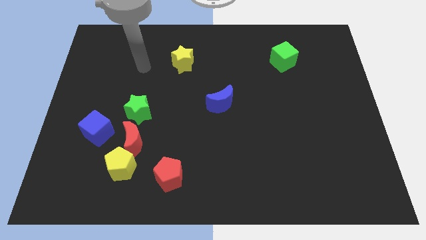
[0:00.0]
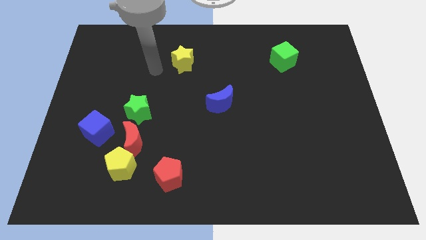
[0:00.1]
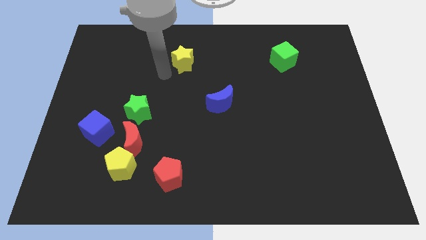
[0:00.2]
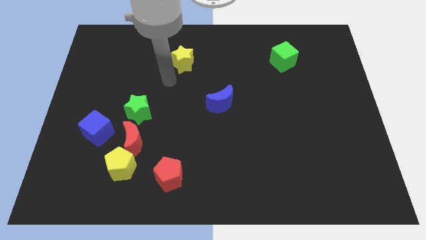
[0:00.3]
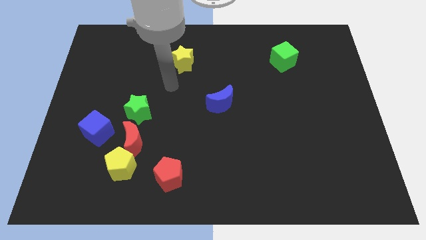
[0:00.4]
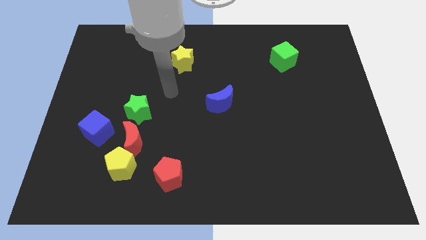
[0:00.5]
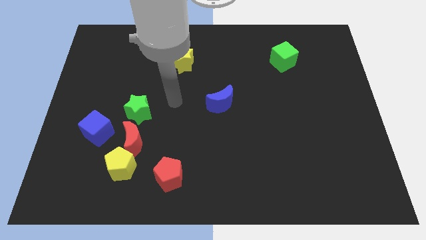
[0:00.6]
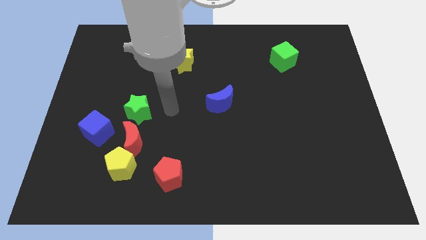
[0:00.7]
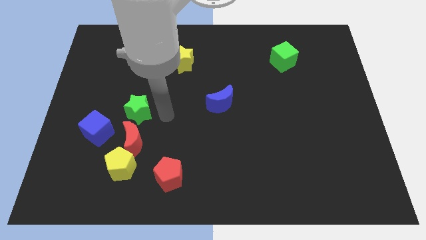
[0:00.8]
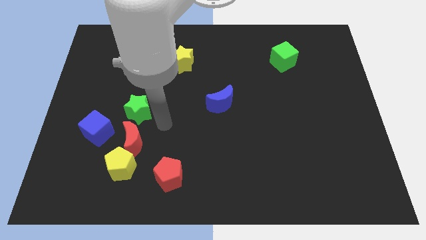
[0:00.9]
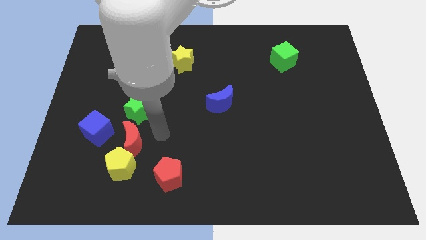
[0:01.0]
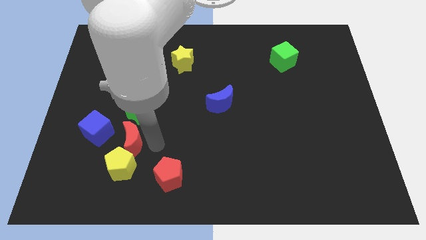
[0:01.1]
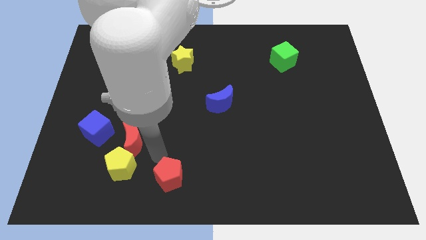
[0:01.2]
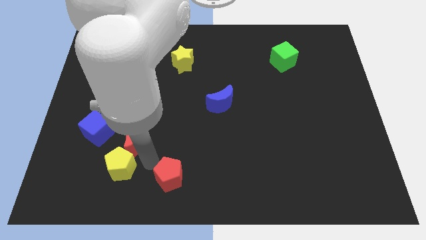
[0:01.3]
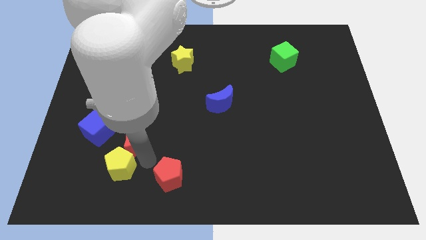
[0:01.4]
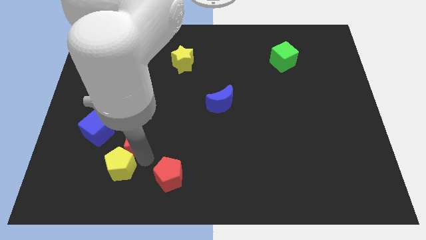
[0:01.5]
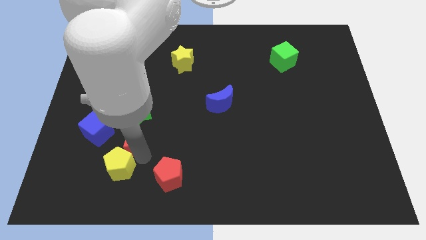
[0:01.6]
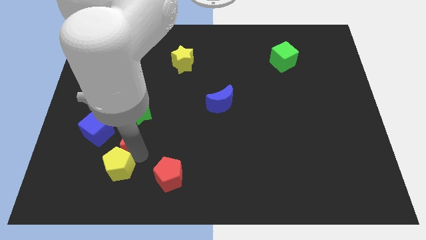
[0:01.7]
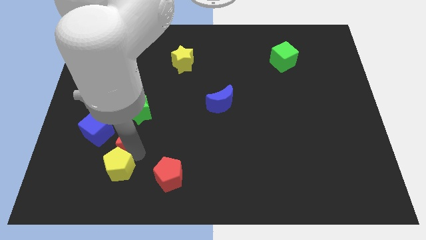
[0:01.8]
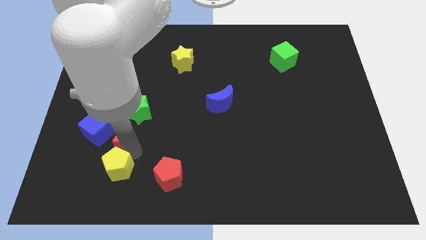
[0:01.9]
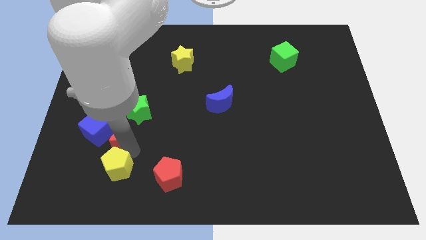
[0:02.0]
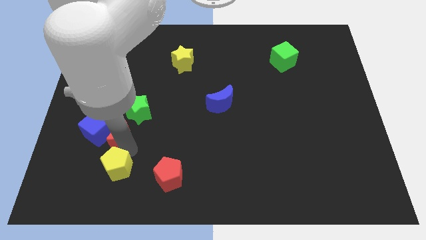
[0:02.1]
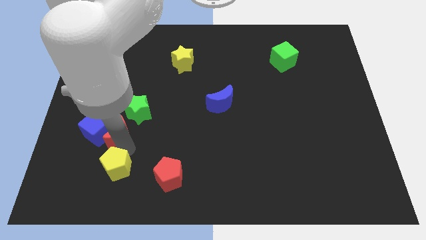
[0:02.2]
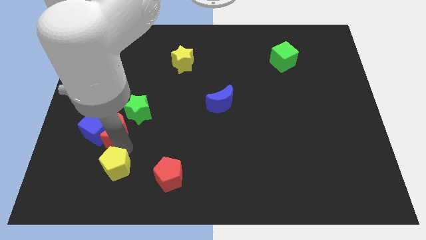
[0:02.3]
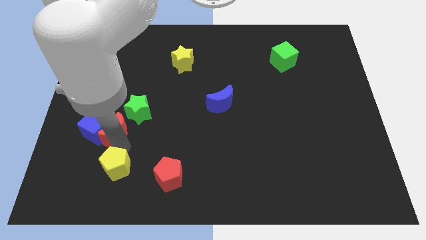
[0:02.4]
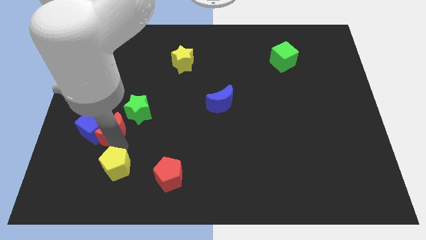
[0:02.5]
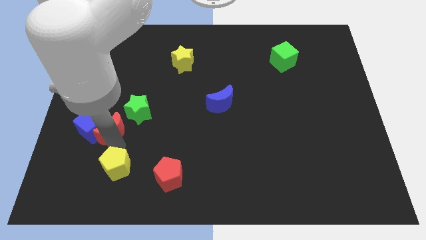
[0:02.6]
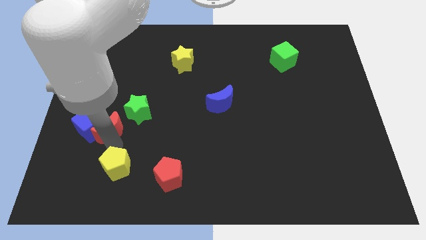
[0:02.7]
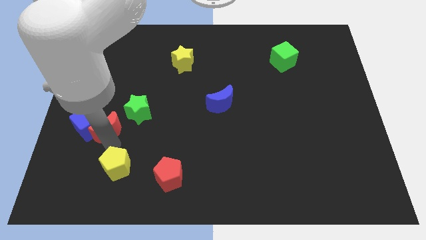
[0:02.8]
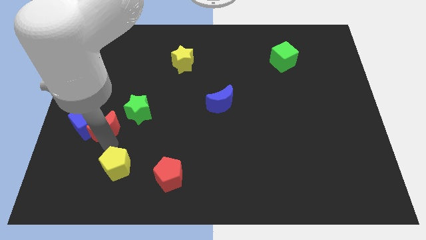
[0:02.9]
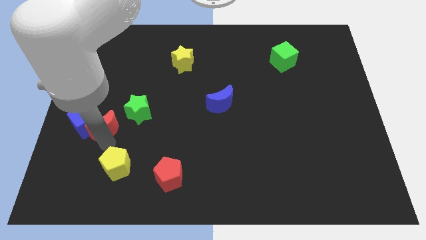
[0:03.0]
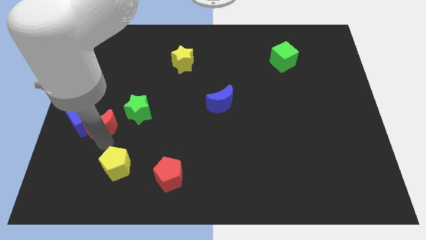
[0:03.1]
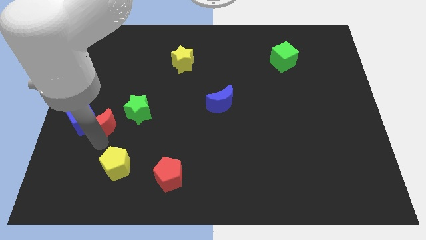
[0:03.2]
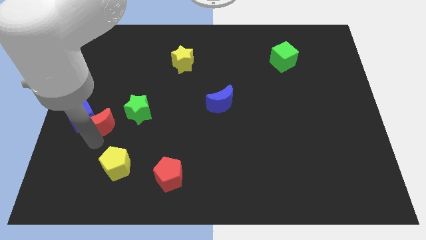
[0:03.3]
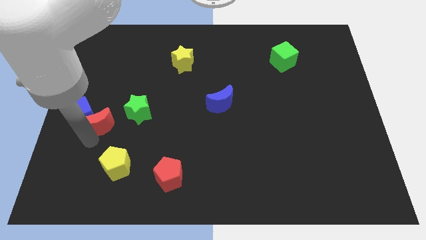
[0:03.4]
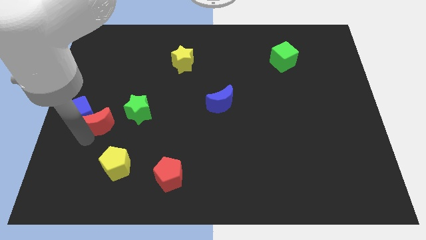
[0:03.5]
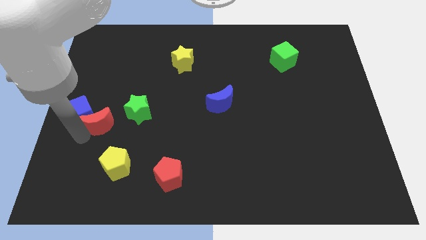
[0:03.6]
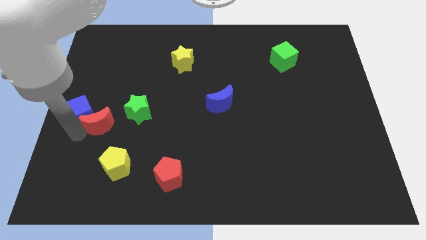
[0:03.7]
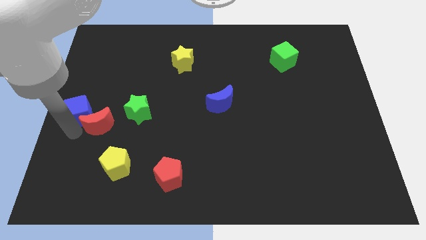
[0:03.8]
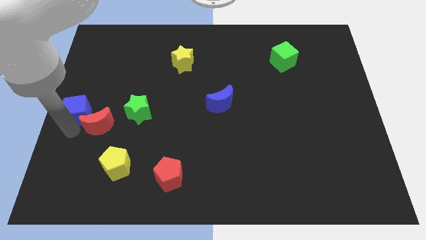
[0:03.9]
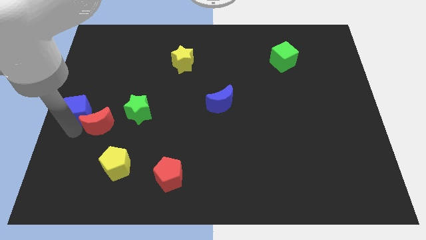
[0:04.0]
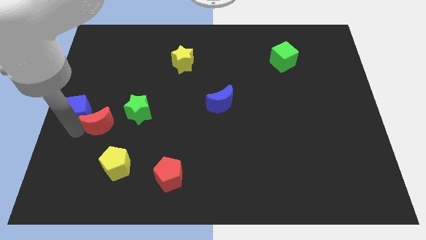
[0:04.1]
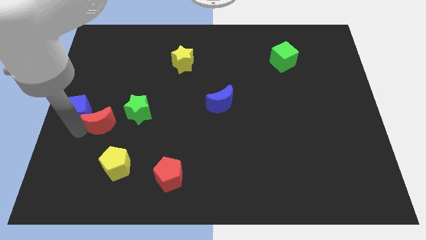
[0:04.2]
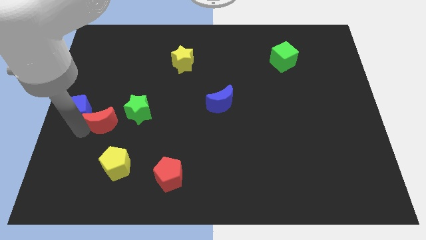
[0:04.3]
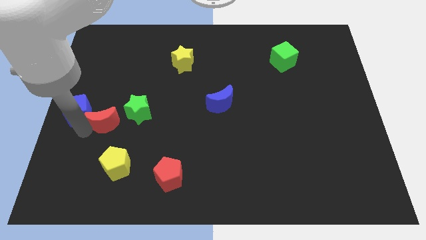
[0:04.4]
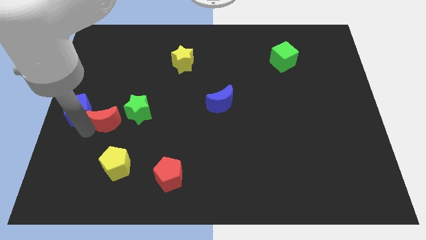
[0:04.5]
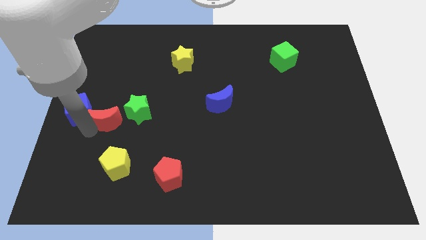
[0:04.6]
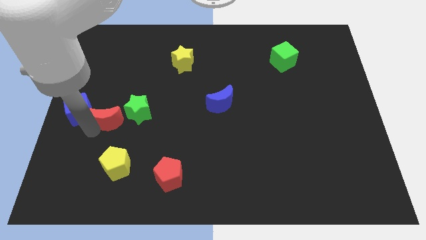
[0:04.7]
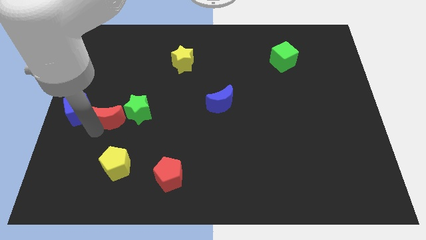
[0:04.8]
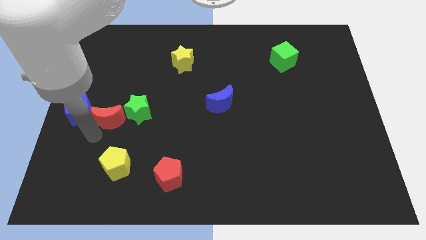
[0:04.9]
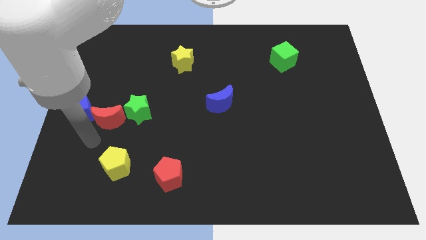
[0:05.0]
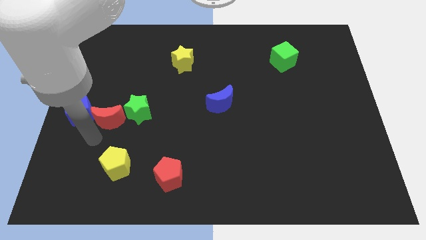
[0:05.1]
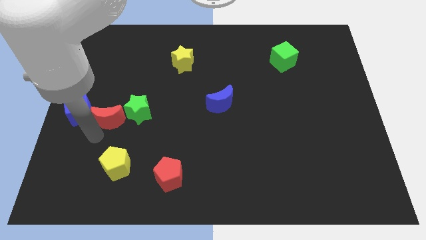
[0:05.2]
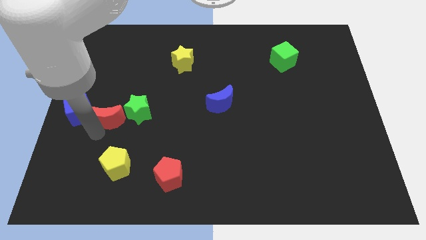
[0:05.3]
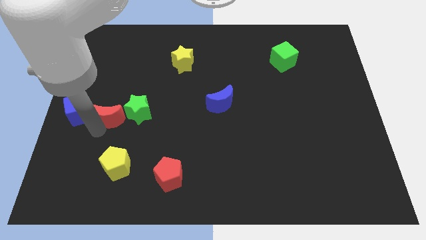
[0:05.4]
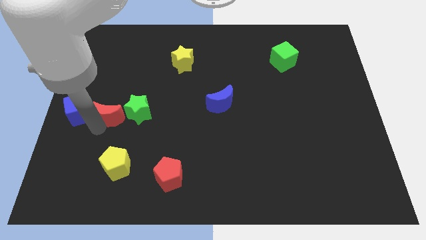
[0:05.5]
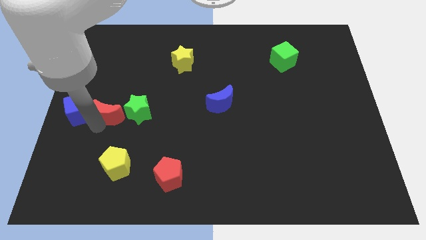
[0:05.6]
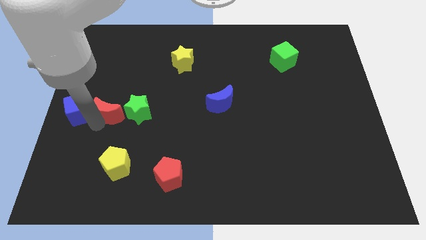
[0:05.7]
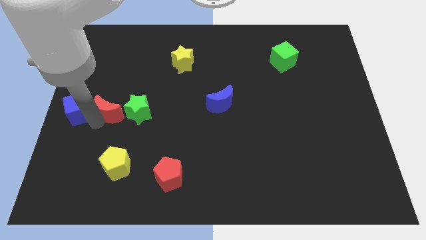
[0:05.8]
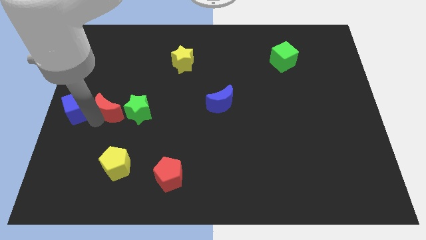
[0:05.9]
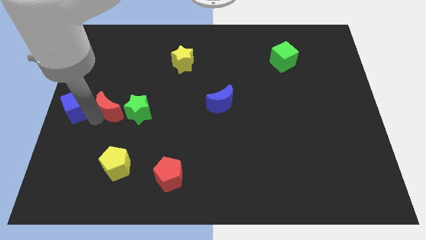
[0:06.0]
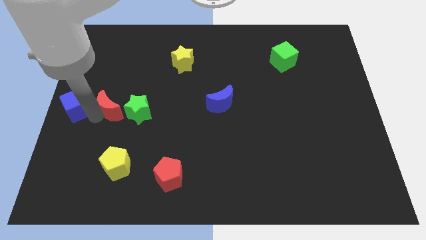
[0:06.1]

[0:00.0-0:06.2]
slightly slide the red moon up

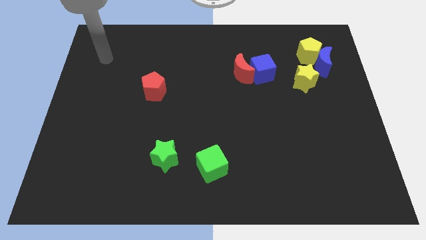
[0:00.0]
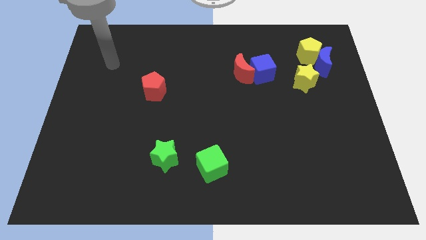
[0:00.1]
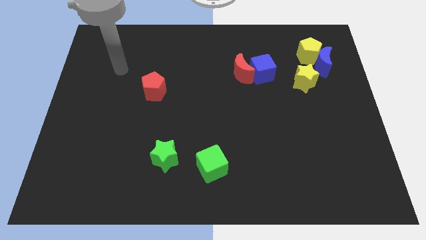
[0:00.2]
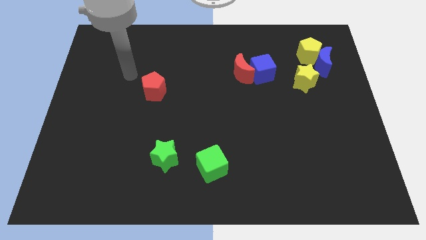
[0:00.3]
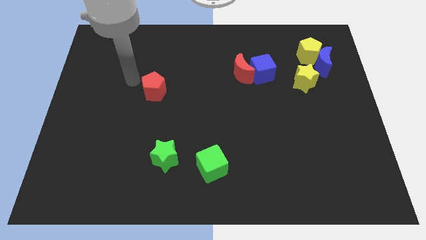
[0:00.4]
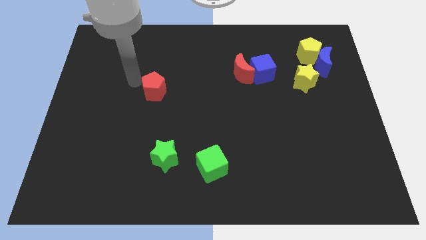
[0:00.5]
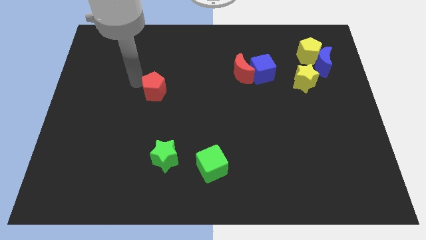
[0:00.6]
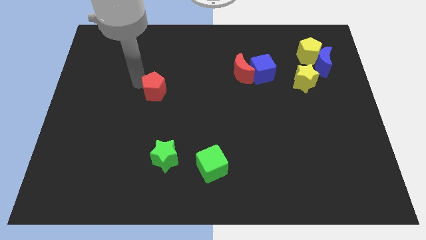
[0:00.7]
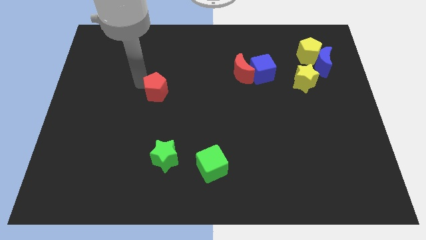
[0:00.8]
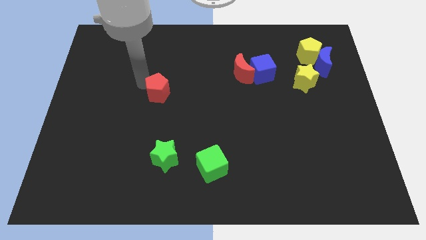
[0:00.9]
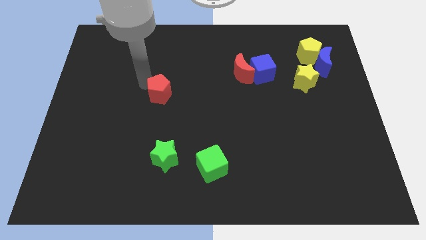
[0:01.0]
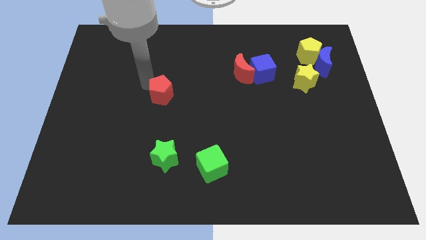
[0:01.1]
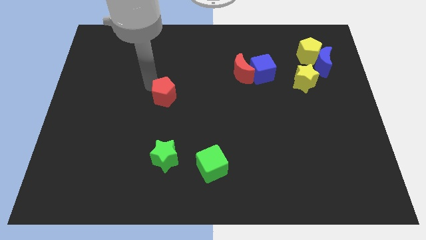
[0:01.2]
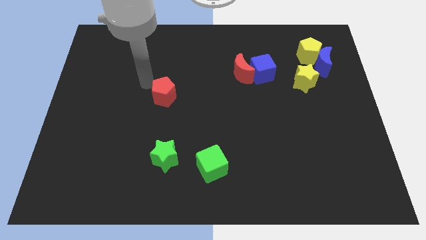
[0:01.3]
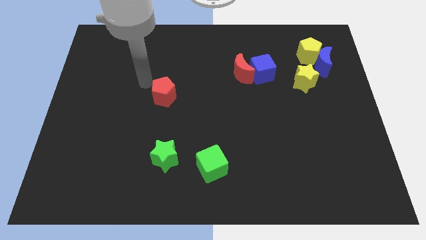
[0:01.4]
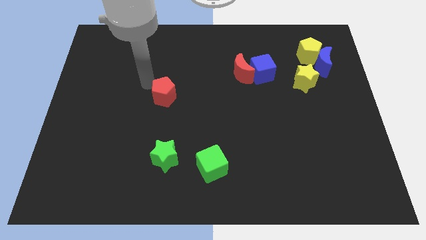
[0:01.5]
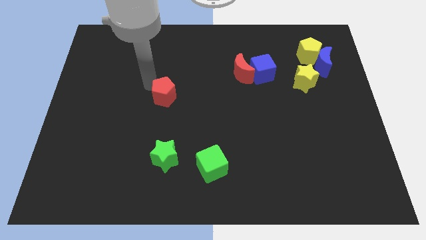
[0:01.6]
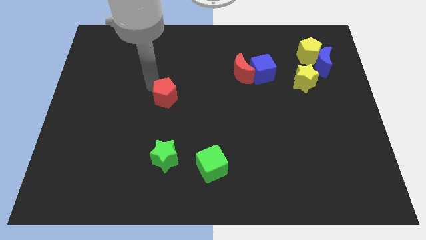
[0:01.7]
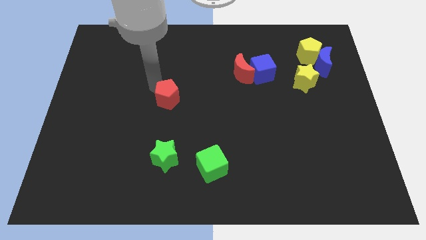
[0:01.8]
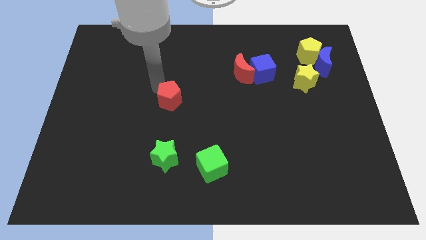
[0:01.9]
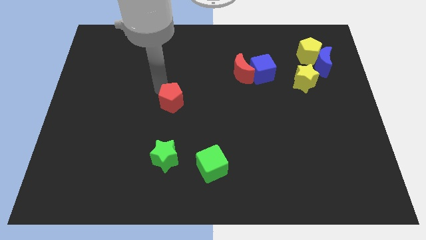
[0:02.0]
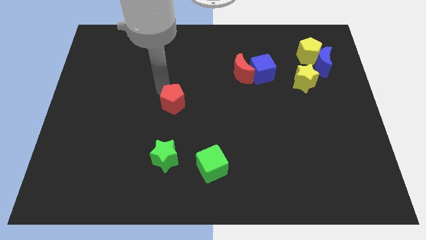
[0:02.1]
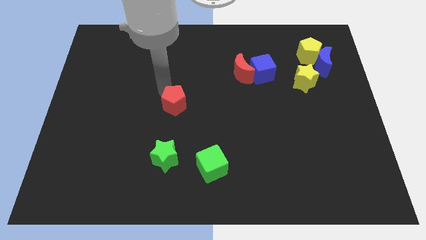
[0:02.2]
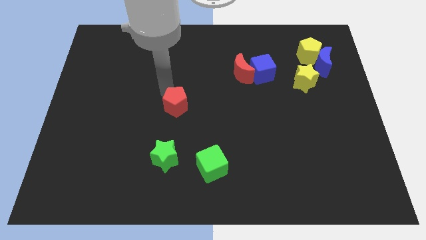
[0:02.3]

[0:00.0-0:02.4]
slightly slide the red pentagon down and right diagonally
